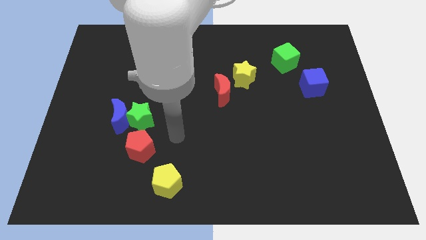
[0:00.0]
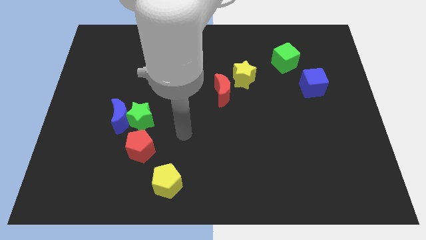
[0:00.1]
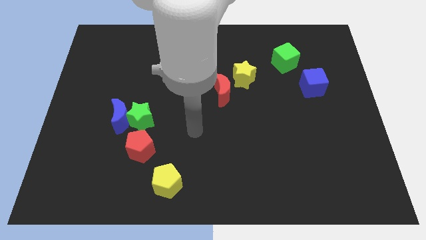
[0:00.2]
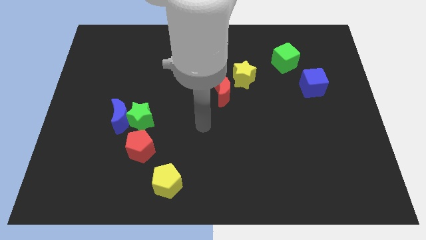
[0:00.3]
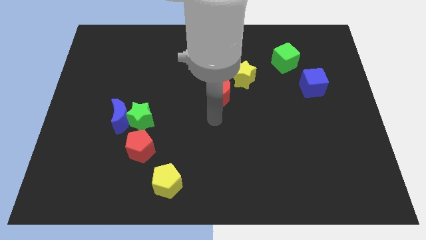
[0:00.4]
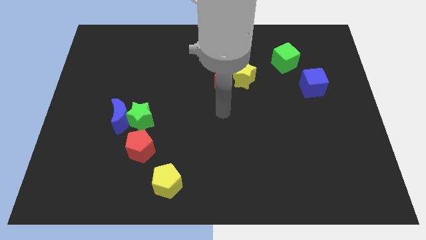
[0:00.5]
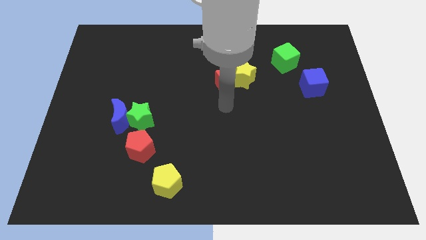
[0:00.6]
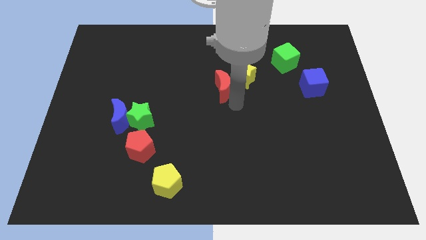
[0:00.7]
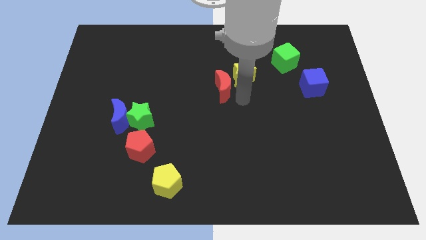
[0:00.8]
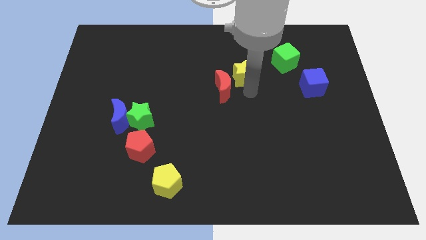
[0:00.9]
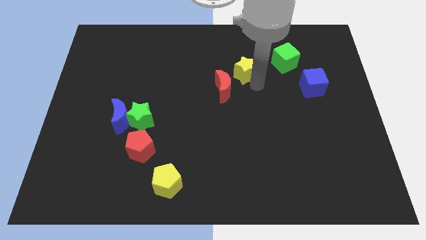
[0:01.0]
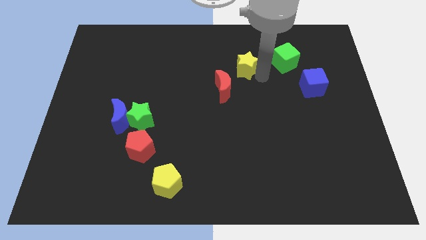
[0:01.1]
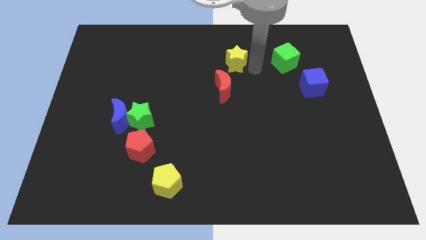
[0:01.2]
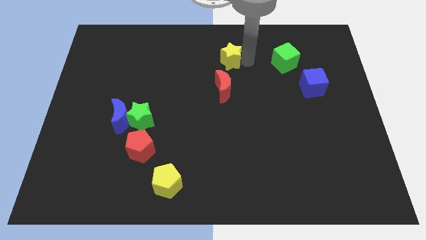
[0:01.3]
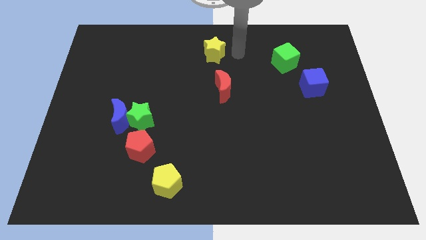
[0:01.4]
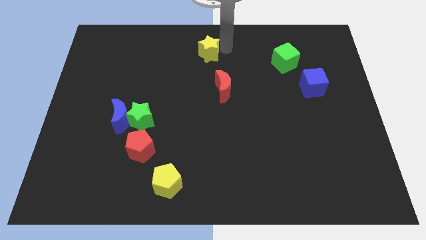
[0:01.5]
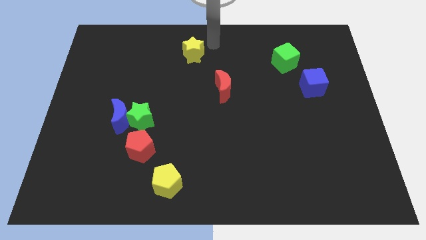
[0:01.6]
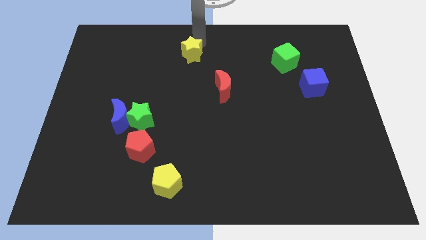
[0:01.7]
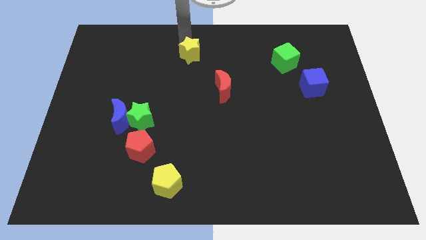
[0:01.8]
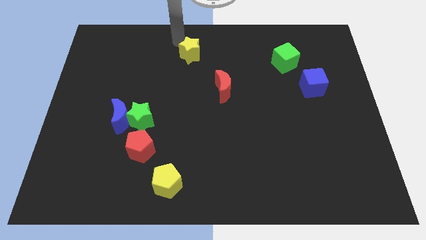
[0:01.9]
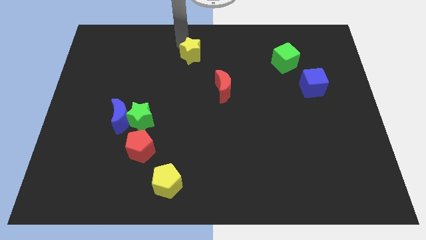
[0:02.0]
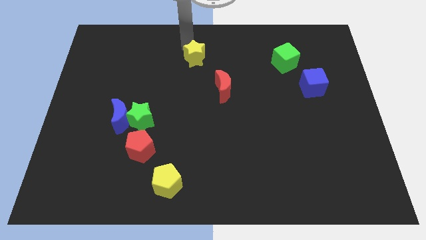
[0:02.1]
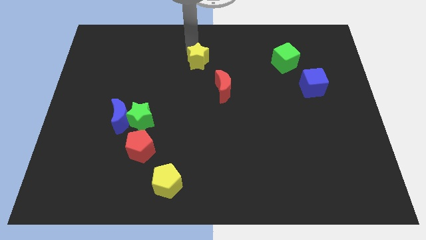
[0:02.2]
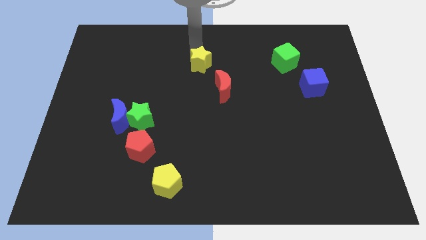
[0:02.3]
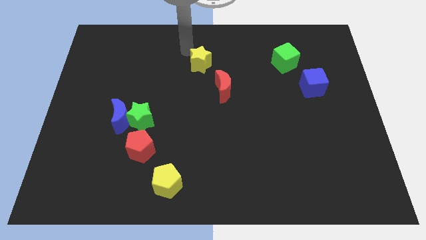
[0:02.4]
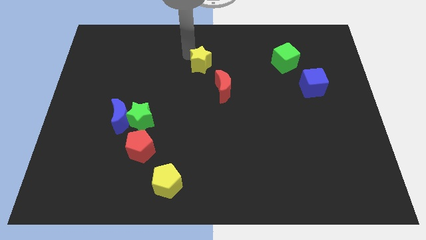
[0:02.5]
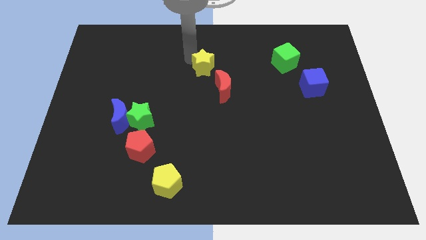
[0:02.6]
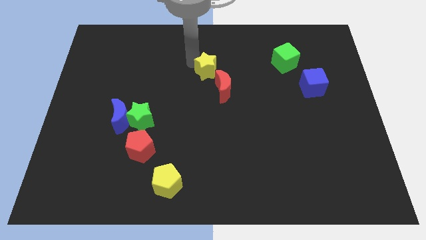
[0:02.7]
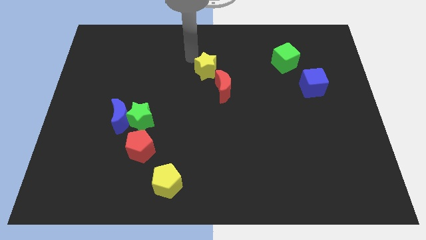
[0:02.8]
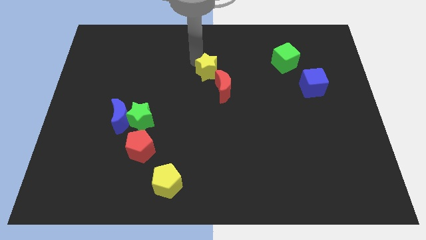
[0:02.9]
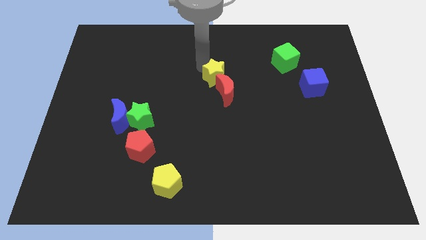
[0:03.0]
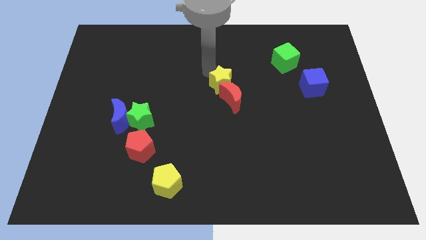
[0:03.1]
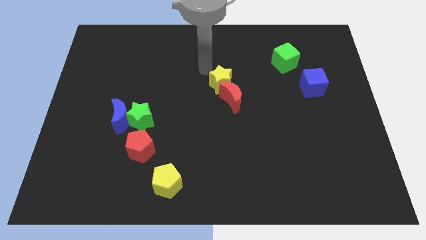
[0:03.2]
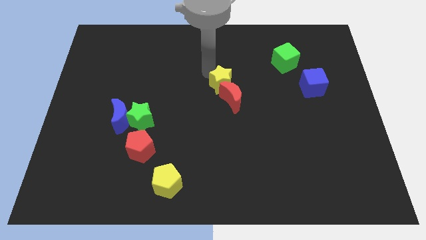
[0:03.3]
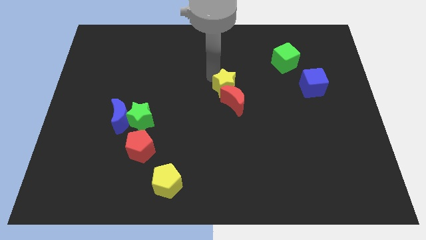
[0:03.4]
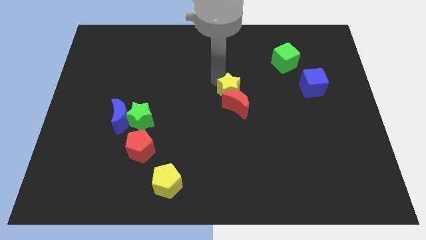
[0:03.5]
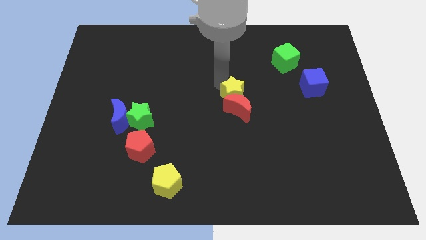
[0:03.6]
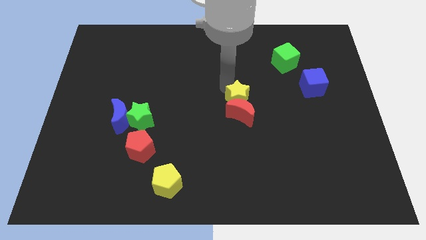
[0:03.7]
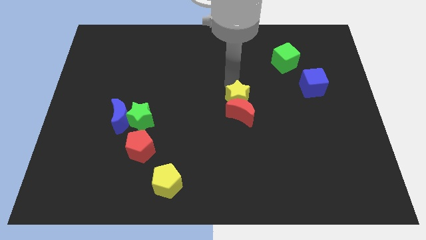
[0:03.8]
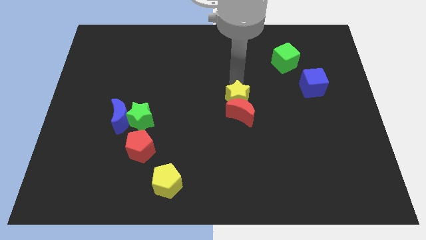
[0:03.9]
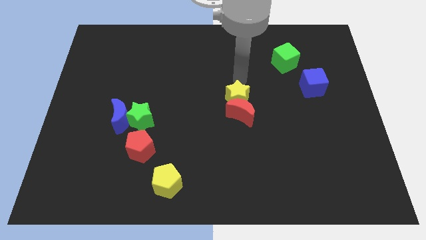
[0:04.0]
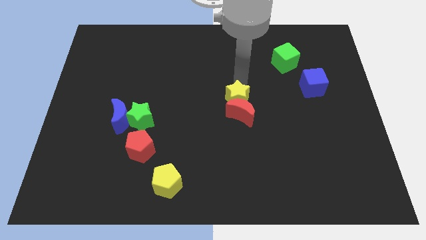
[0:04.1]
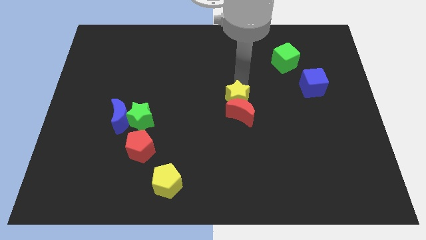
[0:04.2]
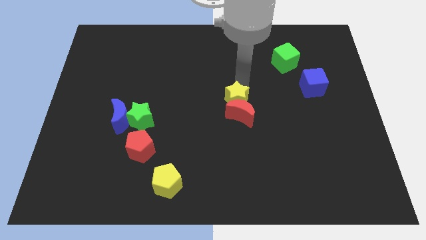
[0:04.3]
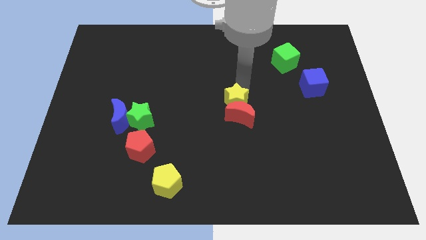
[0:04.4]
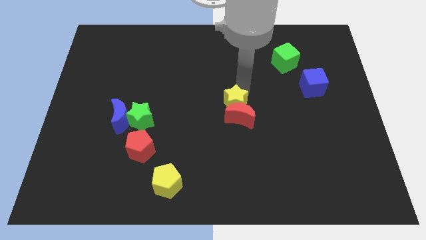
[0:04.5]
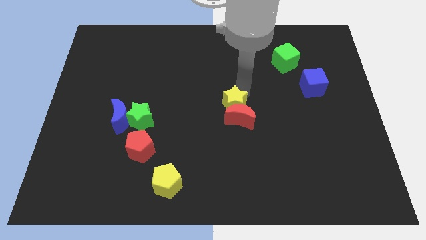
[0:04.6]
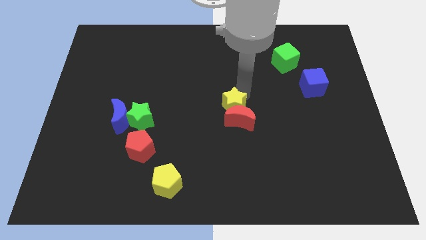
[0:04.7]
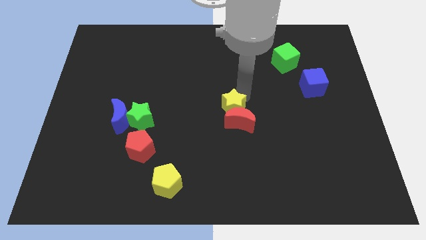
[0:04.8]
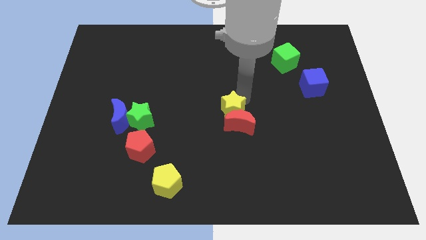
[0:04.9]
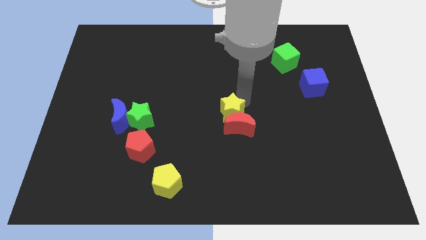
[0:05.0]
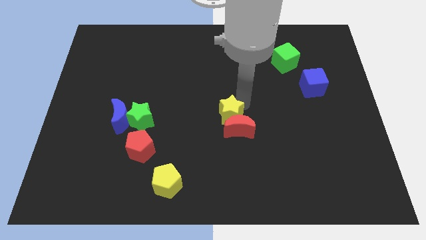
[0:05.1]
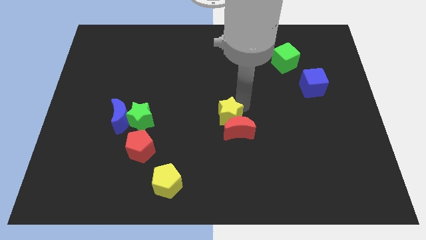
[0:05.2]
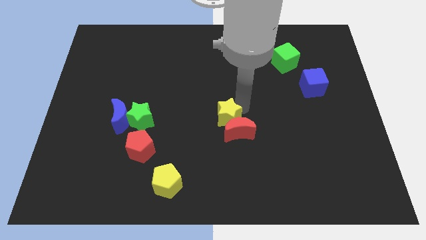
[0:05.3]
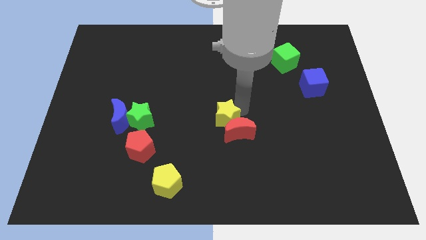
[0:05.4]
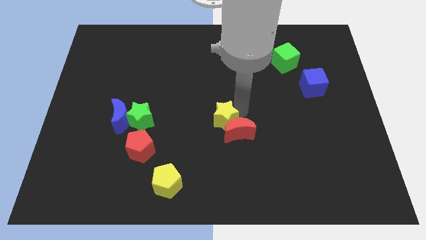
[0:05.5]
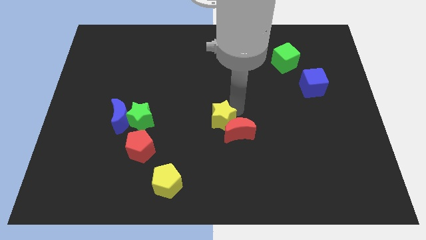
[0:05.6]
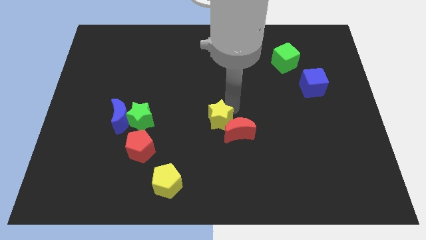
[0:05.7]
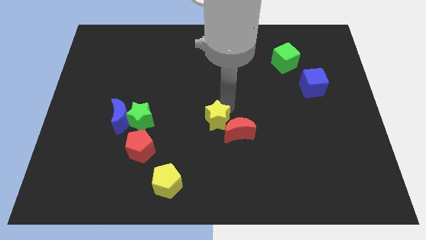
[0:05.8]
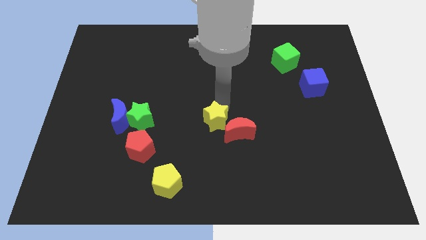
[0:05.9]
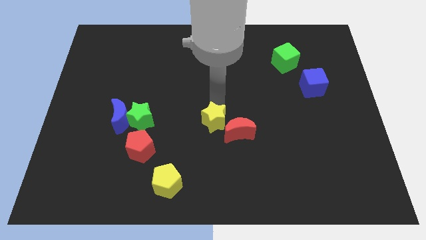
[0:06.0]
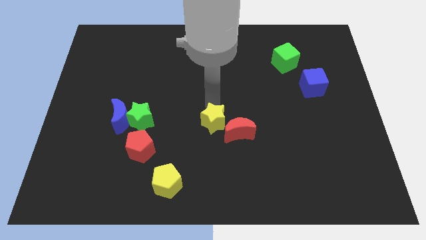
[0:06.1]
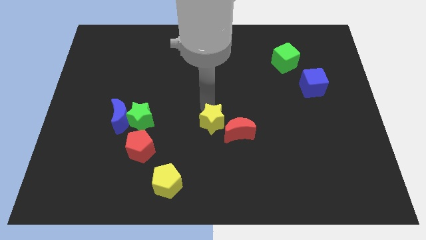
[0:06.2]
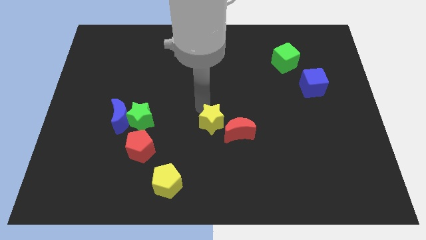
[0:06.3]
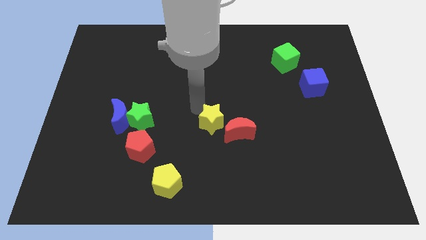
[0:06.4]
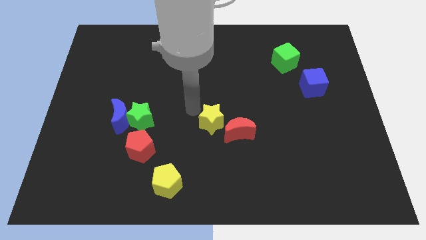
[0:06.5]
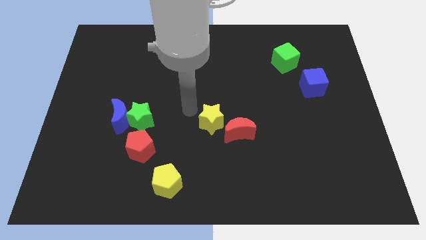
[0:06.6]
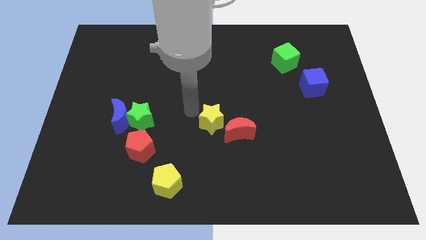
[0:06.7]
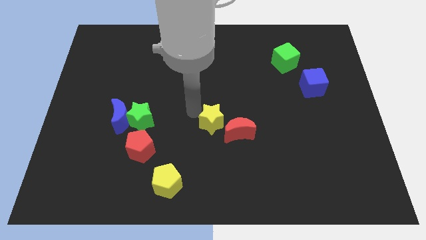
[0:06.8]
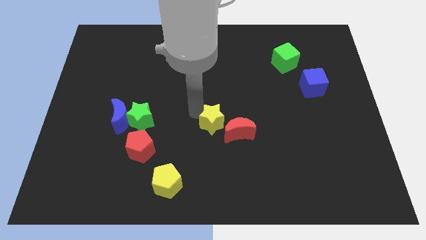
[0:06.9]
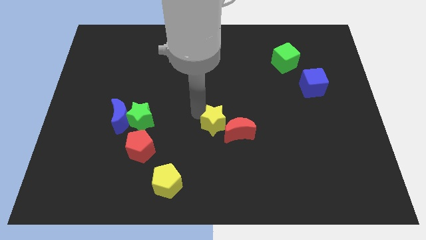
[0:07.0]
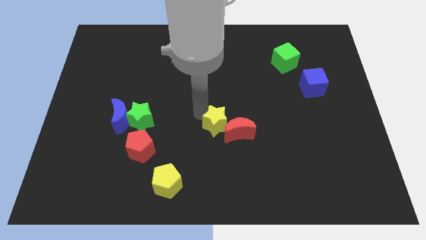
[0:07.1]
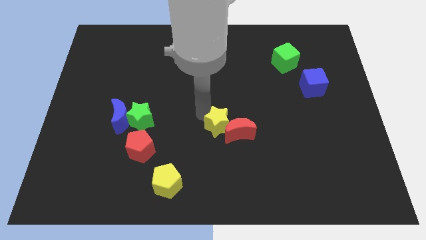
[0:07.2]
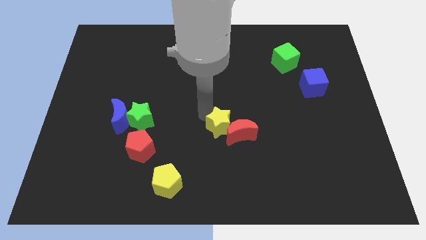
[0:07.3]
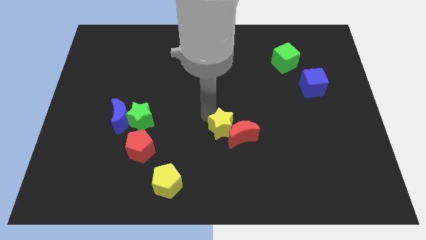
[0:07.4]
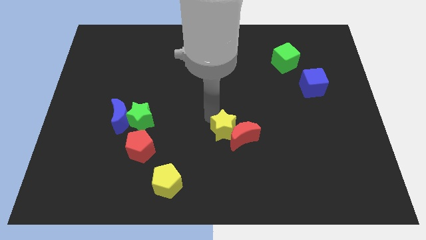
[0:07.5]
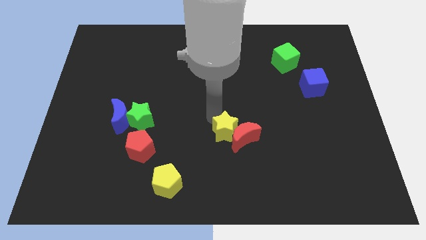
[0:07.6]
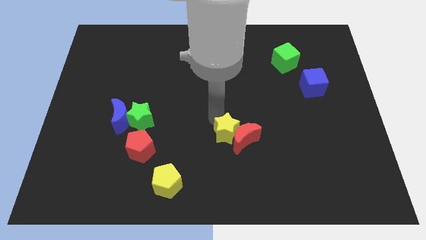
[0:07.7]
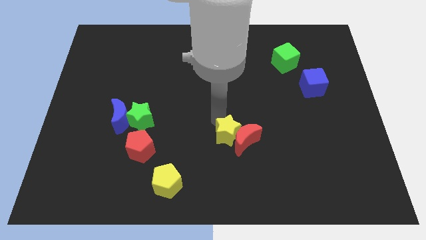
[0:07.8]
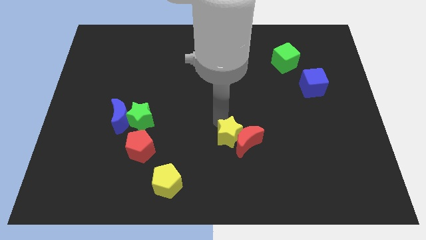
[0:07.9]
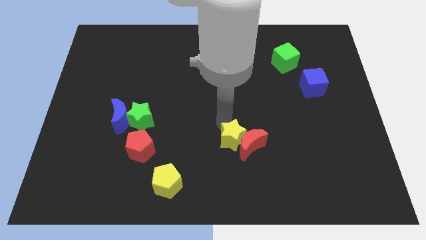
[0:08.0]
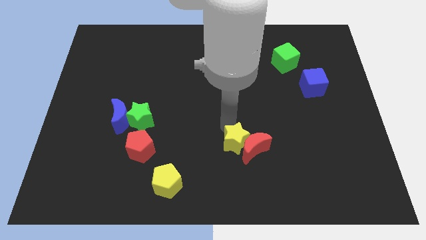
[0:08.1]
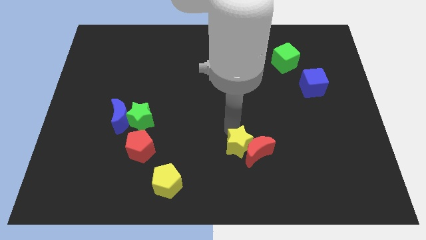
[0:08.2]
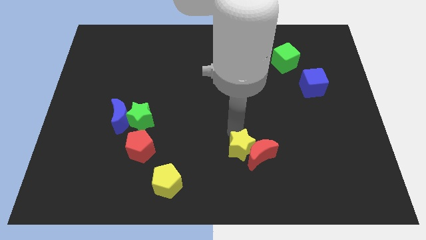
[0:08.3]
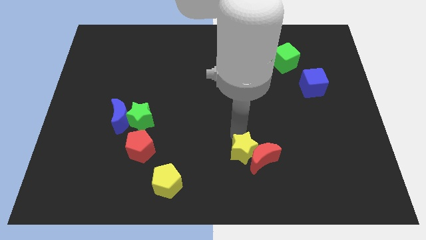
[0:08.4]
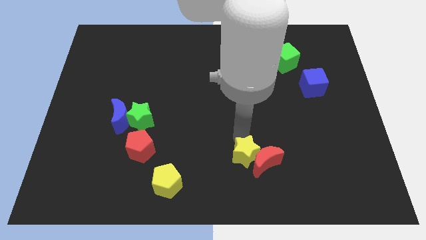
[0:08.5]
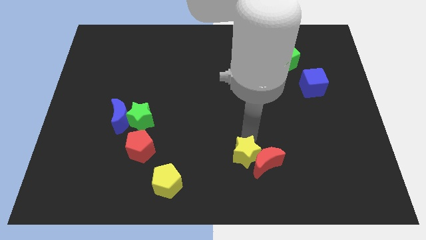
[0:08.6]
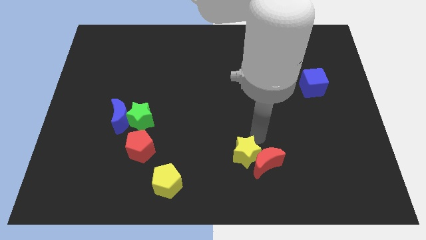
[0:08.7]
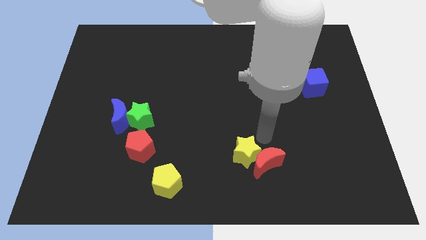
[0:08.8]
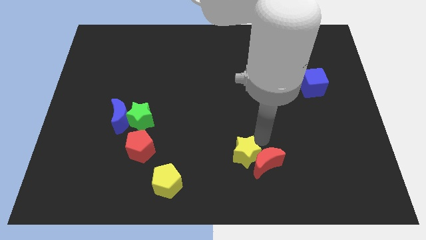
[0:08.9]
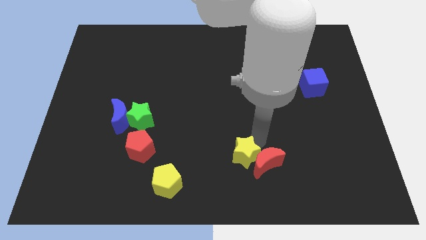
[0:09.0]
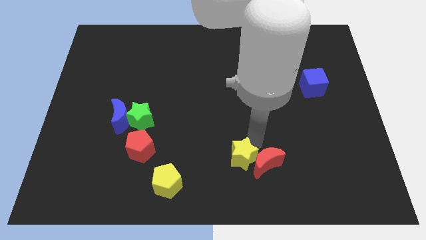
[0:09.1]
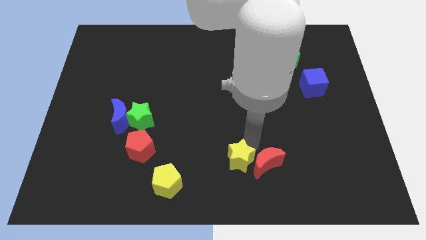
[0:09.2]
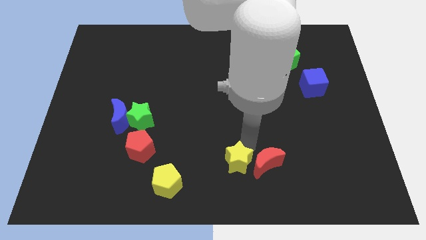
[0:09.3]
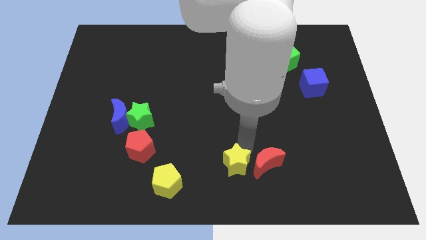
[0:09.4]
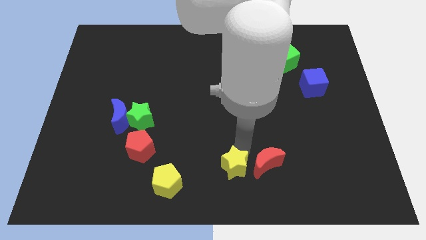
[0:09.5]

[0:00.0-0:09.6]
slide the yellow star to the right of the yellow pentagon
